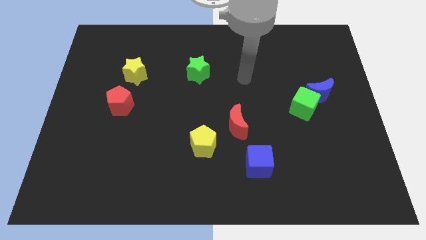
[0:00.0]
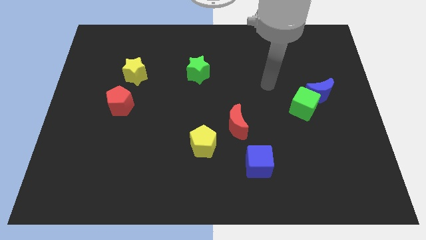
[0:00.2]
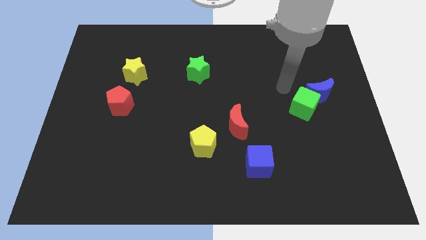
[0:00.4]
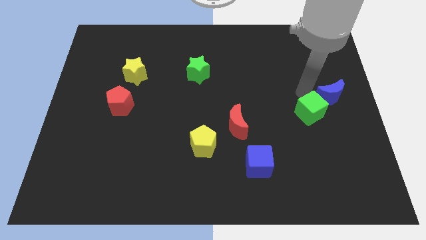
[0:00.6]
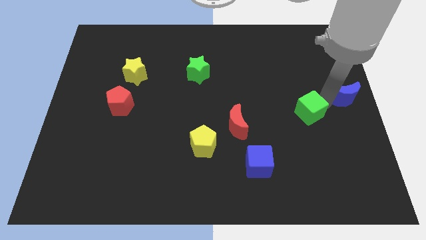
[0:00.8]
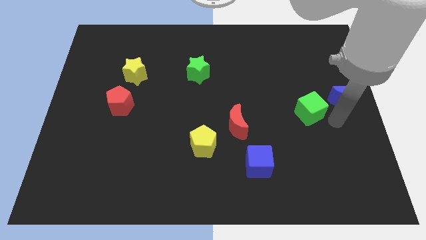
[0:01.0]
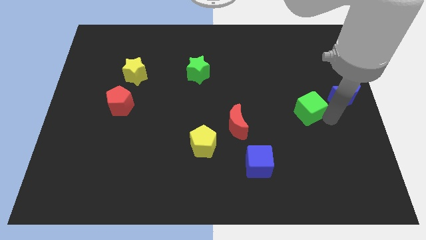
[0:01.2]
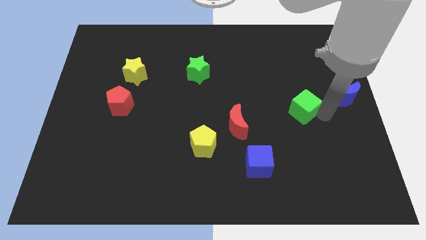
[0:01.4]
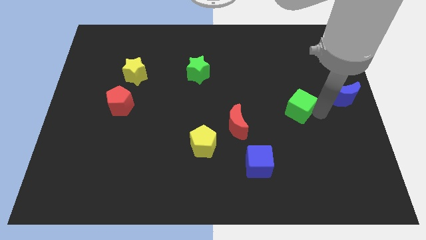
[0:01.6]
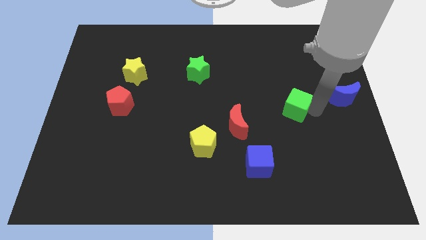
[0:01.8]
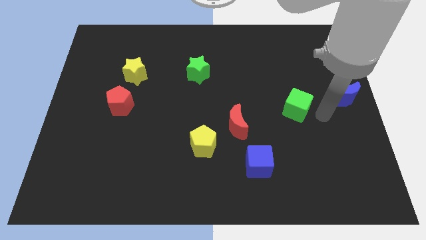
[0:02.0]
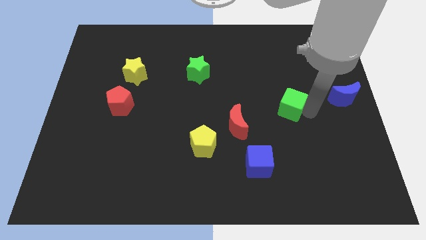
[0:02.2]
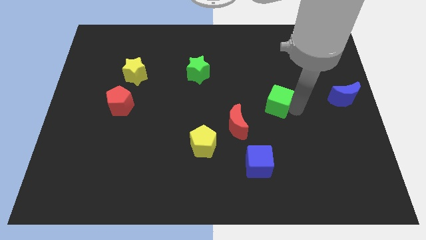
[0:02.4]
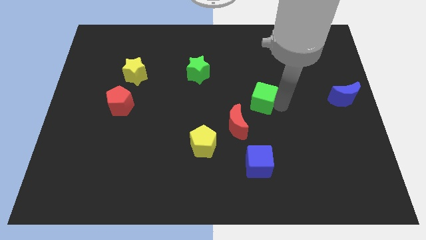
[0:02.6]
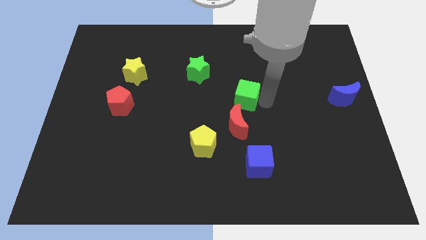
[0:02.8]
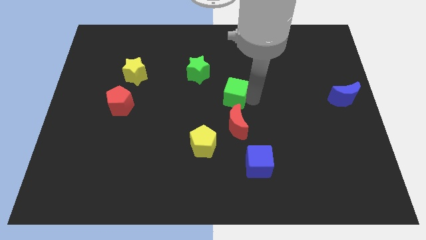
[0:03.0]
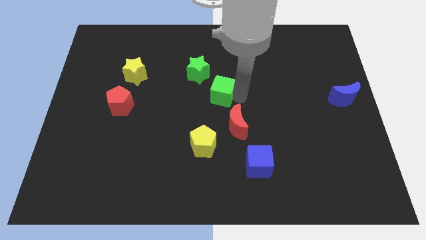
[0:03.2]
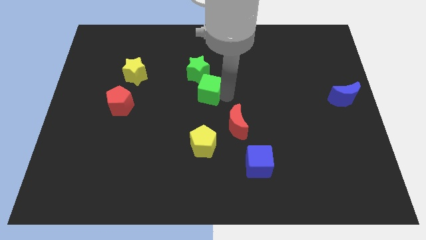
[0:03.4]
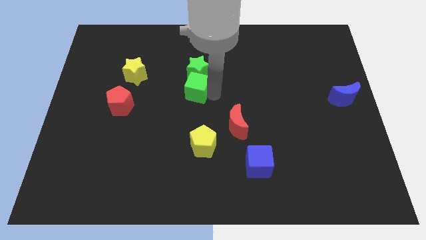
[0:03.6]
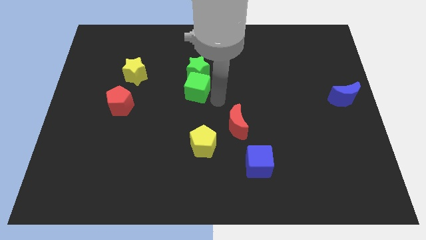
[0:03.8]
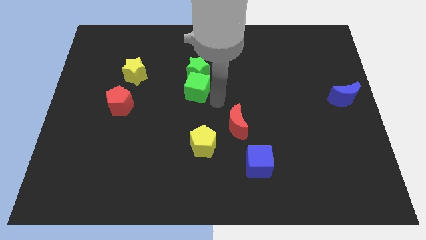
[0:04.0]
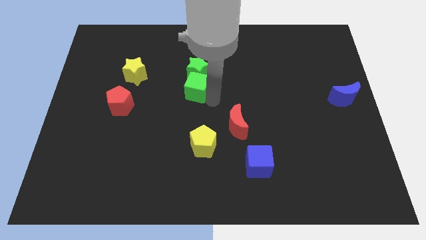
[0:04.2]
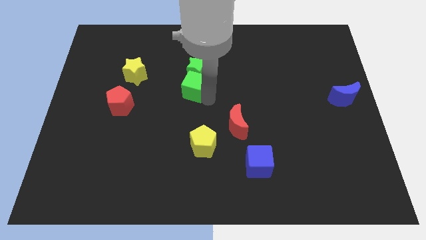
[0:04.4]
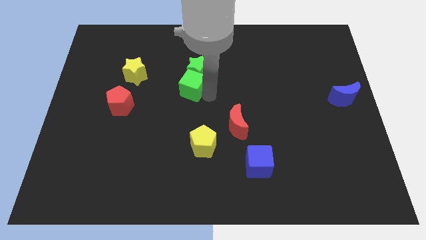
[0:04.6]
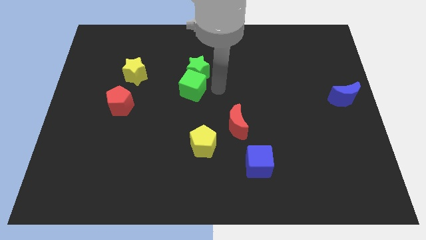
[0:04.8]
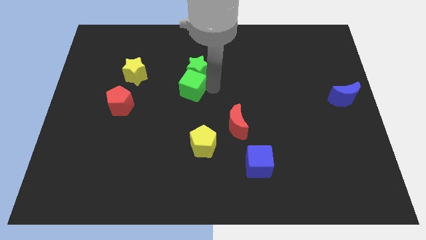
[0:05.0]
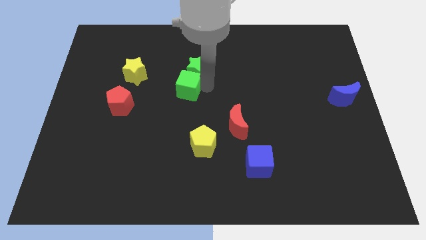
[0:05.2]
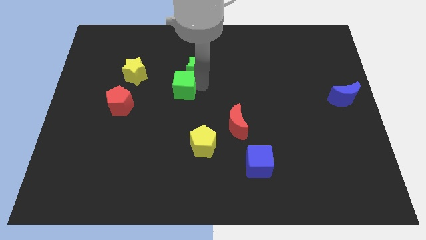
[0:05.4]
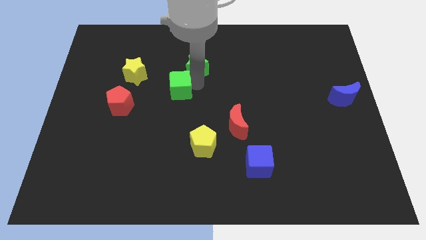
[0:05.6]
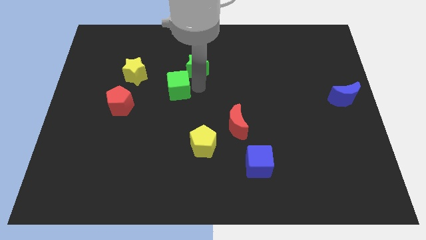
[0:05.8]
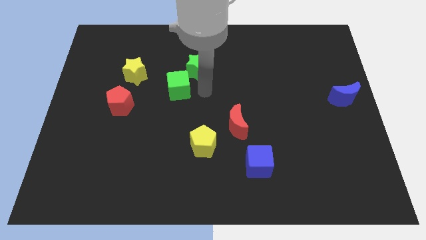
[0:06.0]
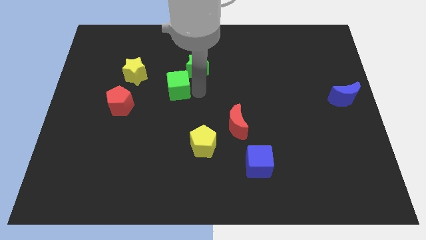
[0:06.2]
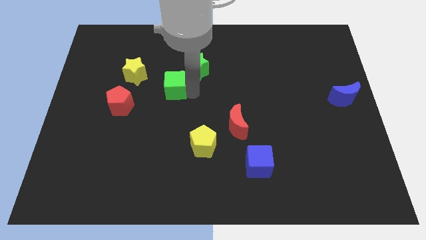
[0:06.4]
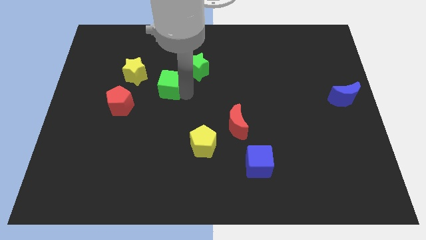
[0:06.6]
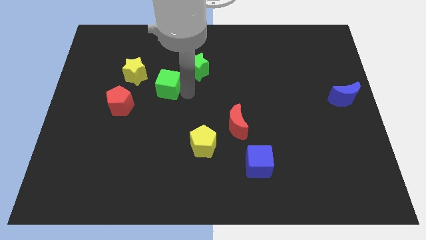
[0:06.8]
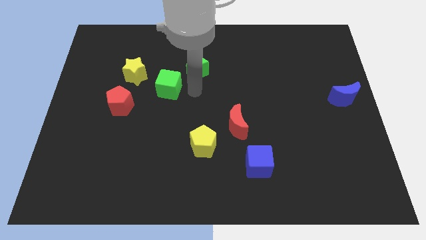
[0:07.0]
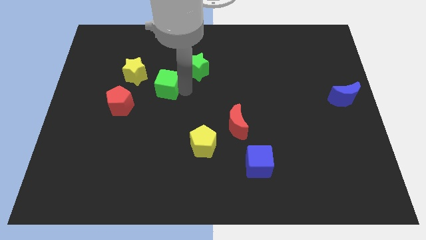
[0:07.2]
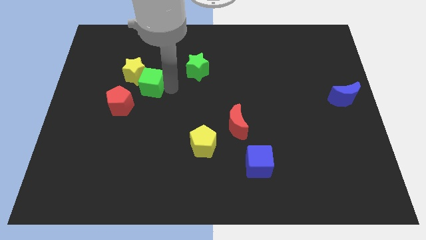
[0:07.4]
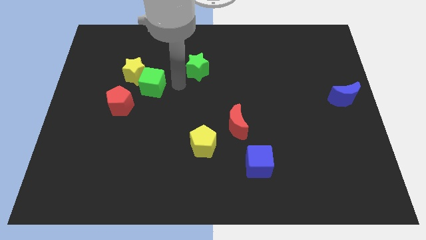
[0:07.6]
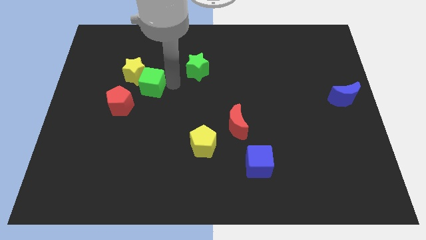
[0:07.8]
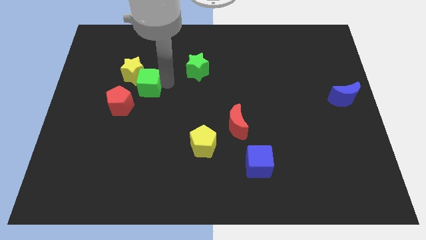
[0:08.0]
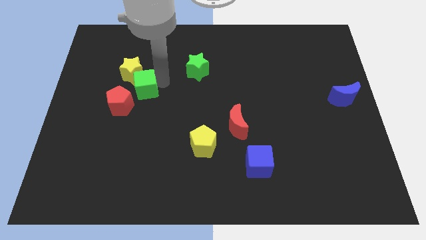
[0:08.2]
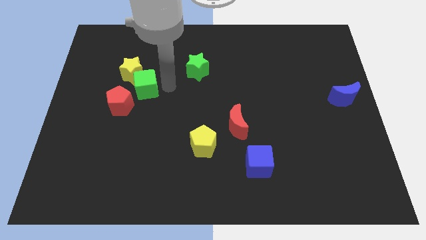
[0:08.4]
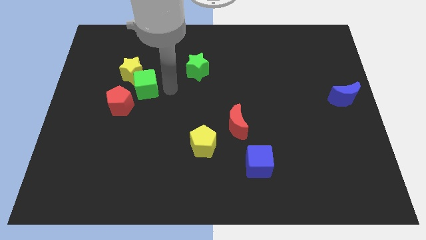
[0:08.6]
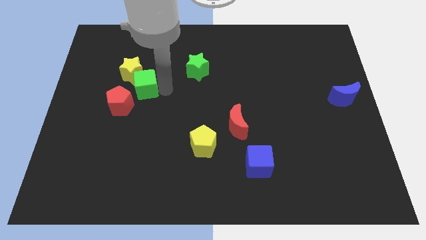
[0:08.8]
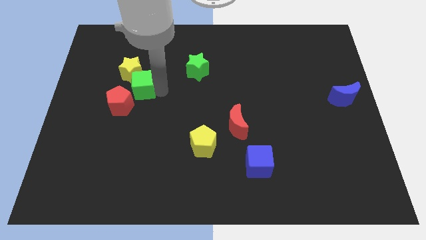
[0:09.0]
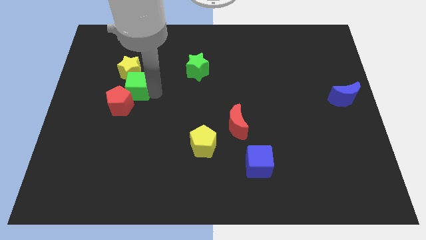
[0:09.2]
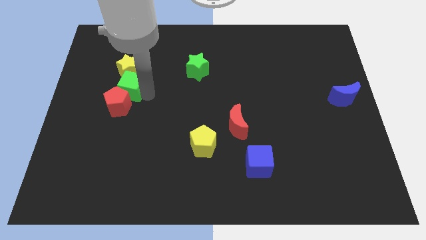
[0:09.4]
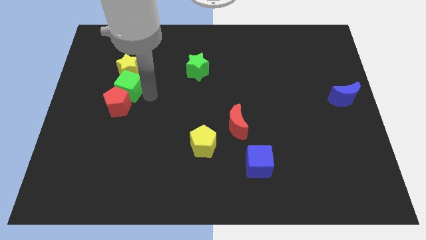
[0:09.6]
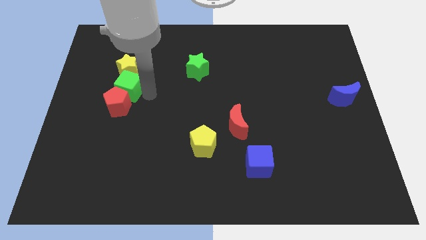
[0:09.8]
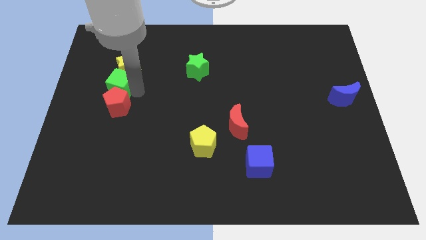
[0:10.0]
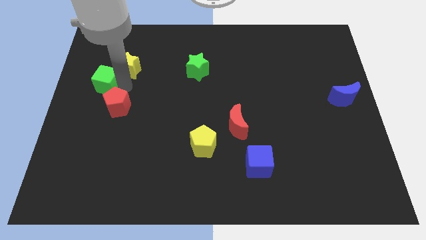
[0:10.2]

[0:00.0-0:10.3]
put the green cube to the center left
